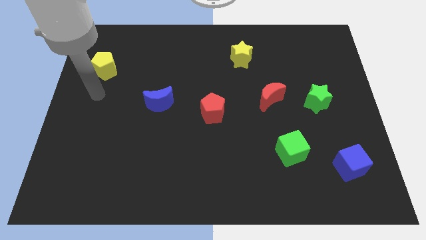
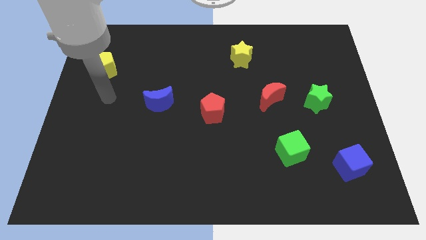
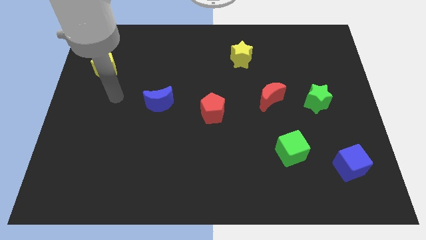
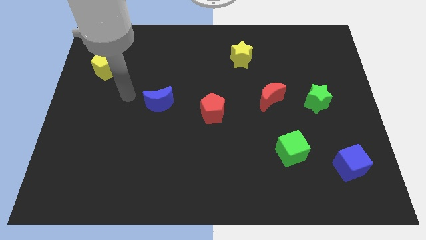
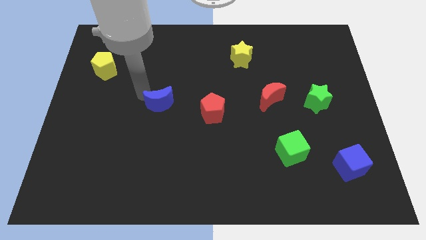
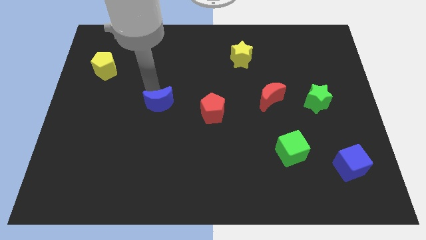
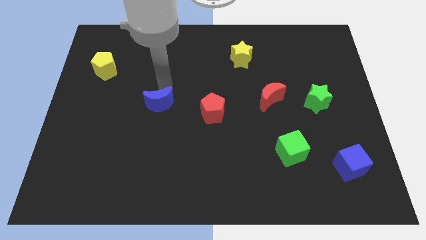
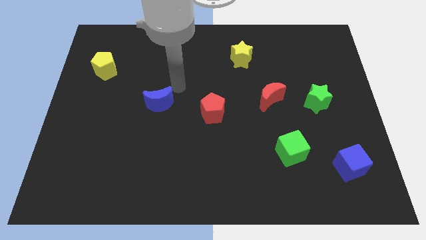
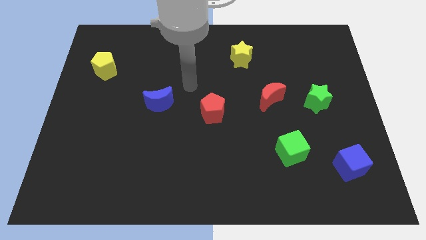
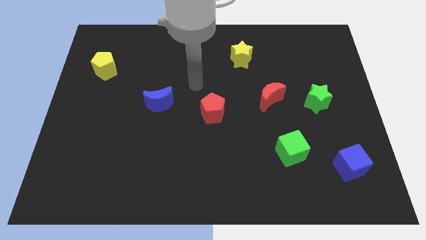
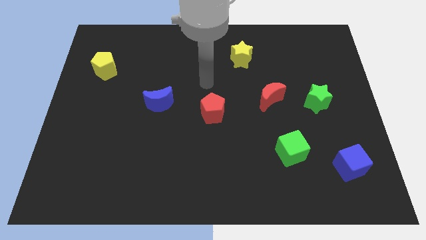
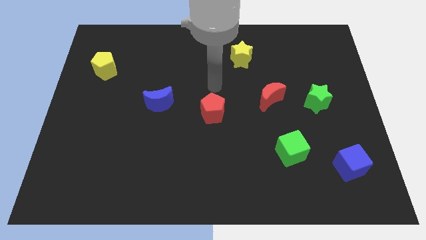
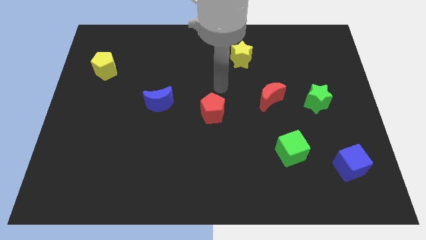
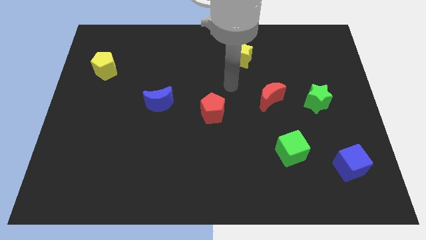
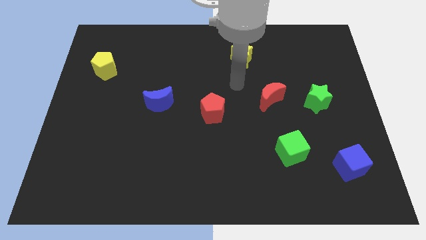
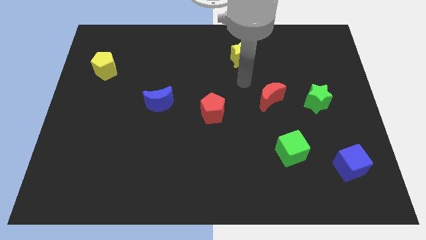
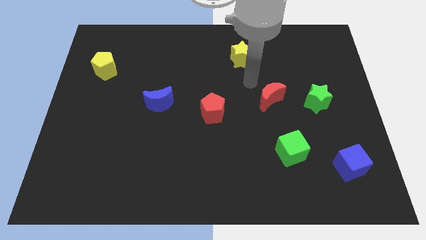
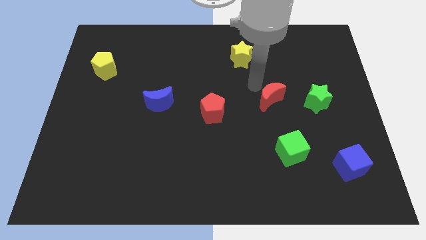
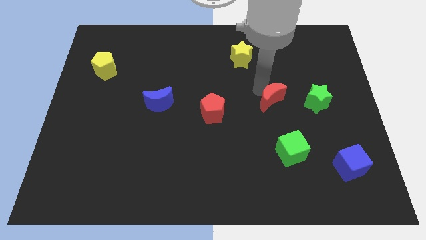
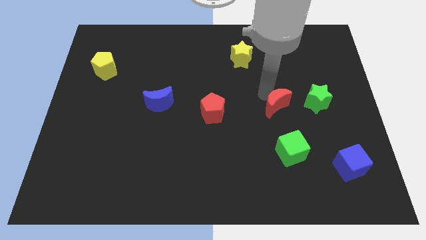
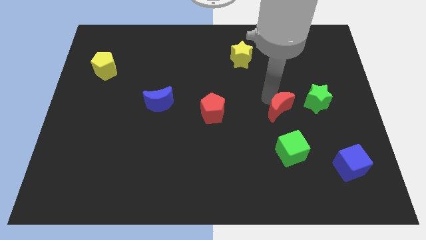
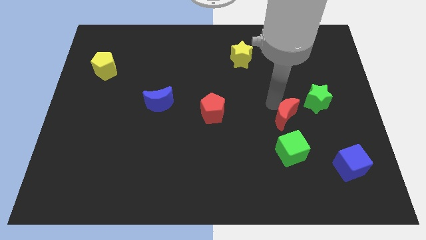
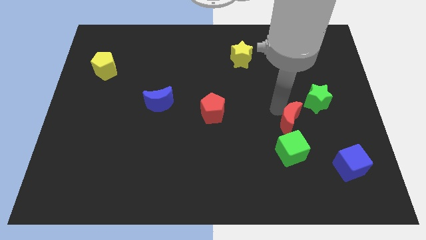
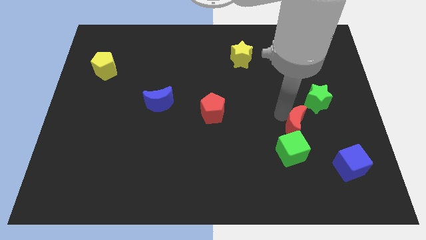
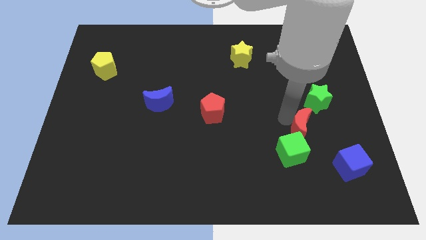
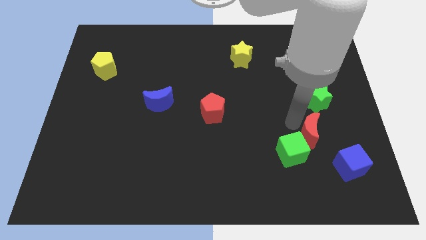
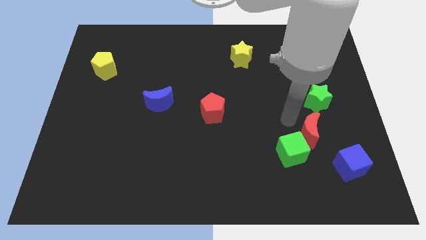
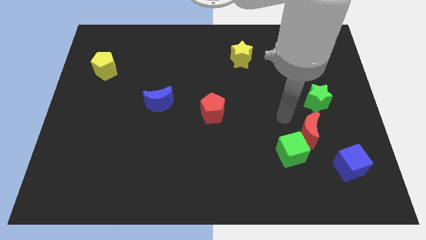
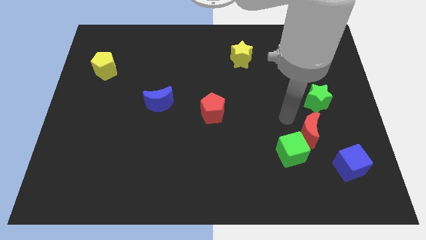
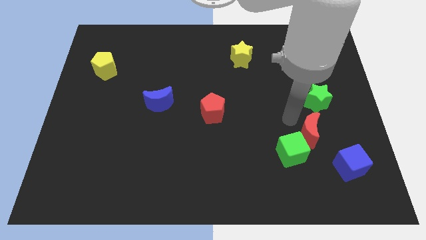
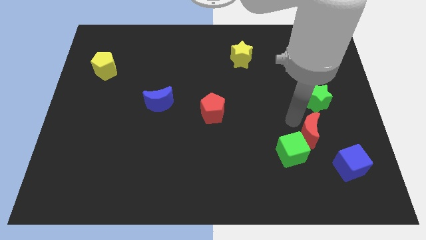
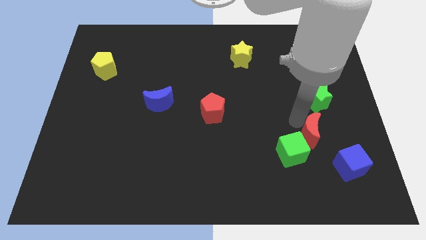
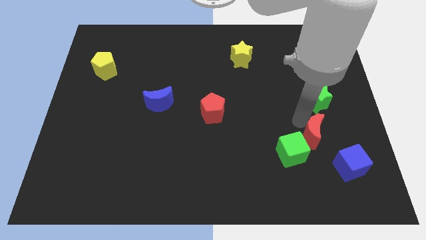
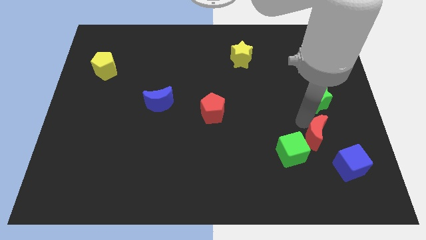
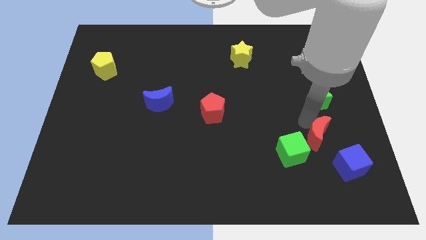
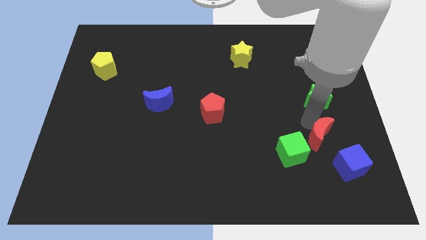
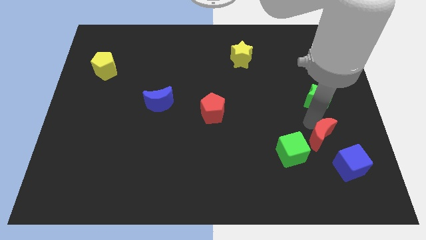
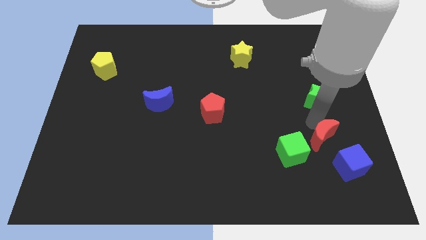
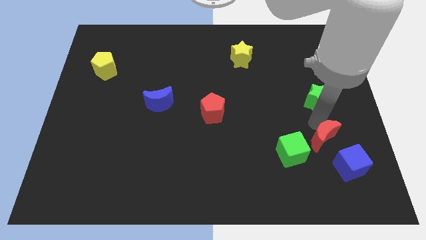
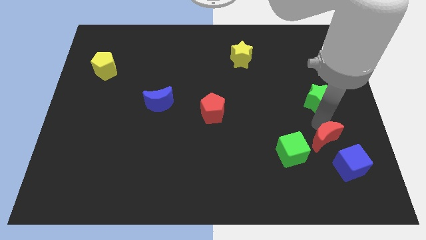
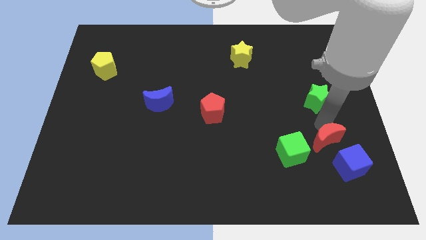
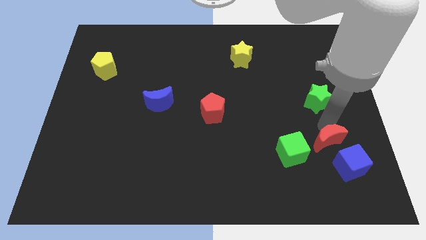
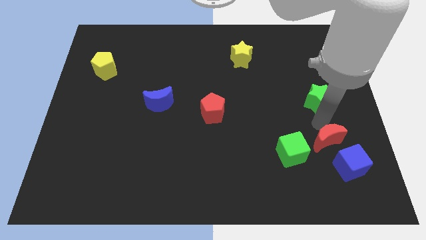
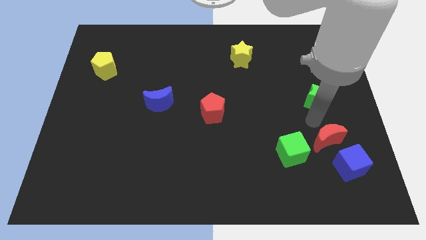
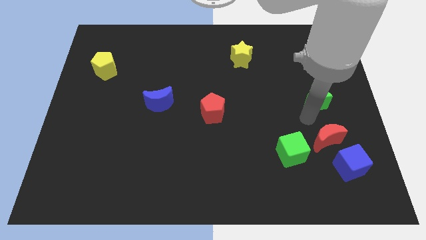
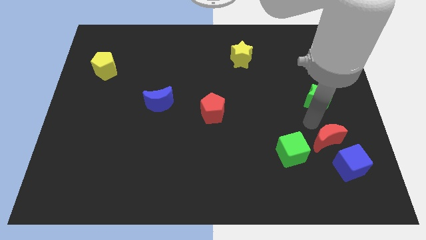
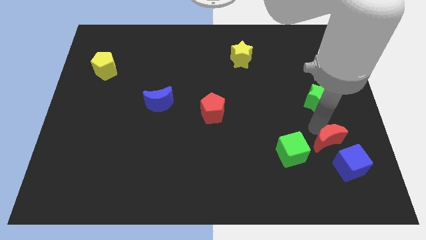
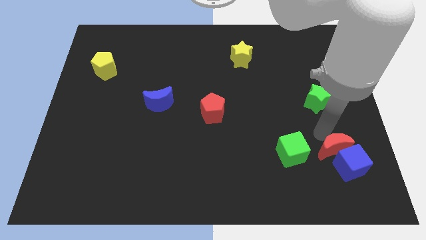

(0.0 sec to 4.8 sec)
slide the red moon to the blue cube

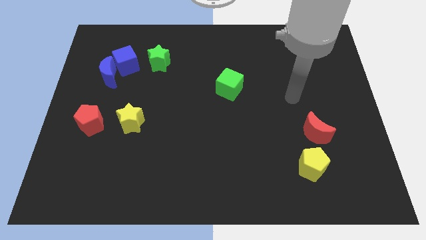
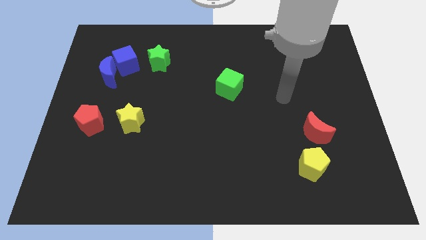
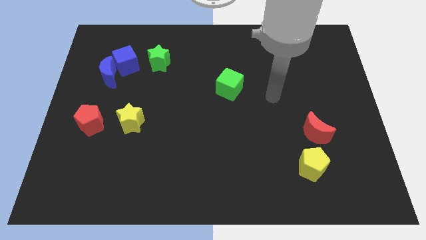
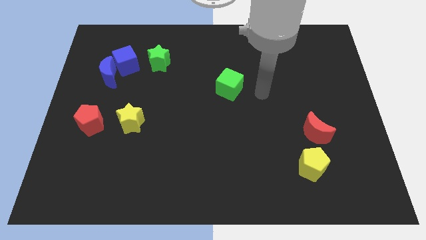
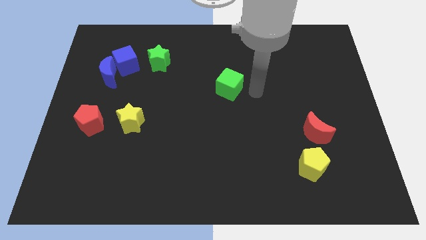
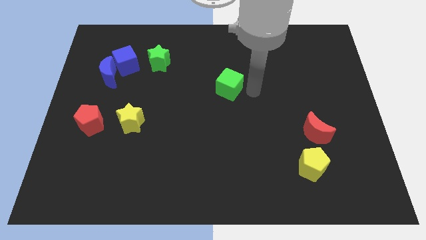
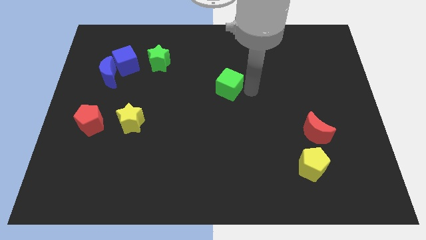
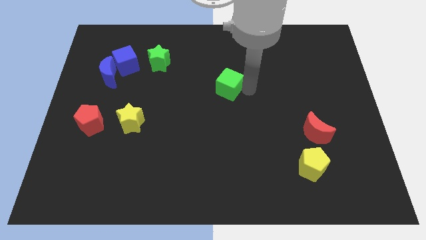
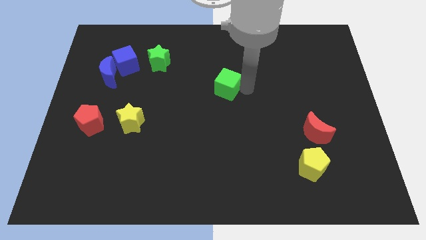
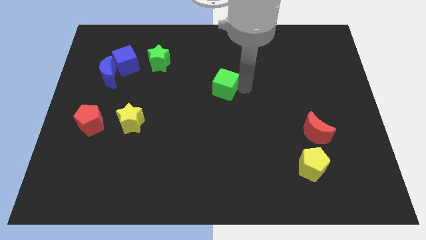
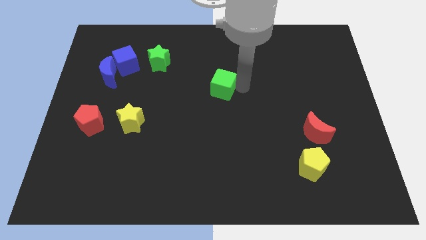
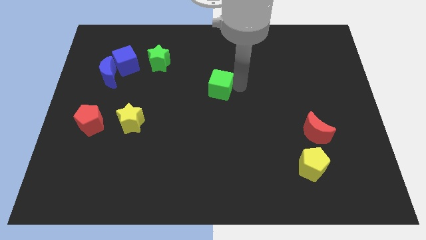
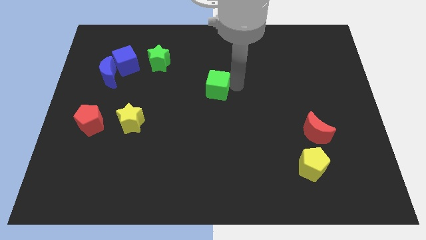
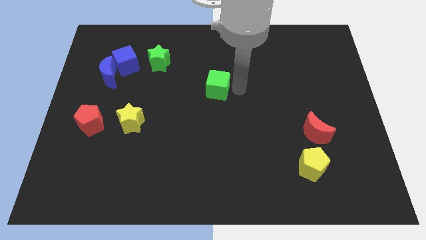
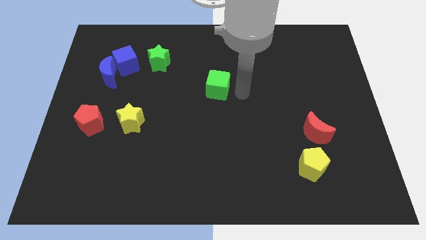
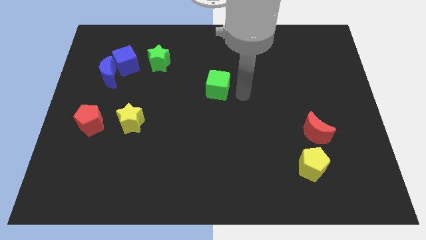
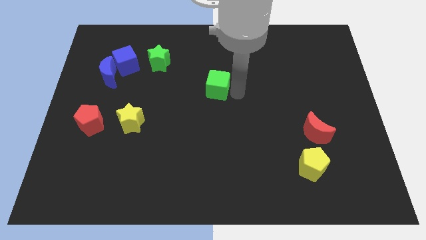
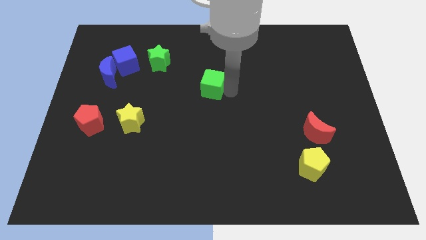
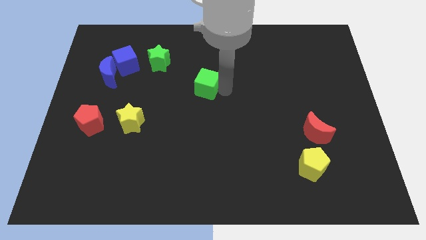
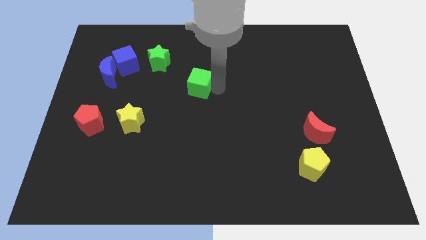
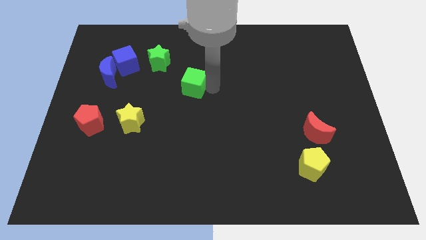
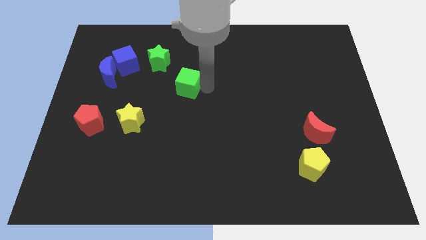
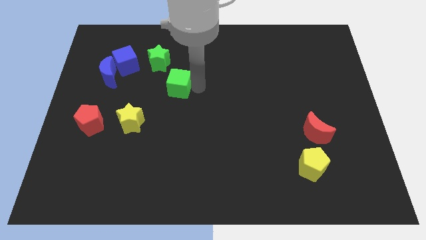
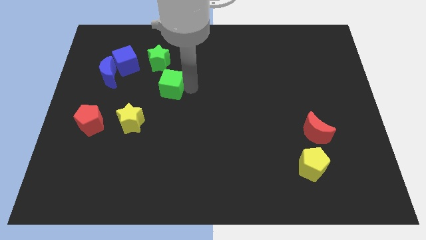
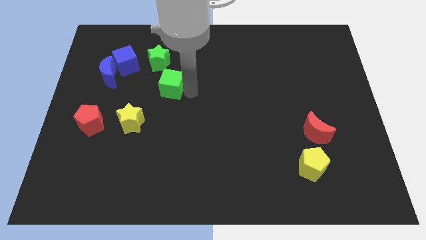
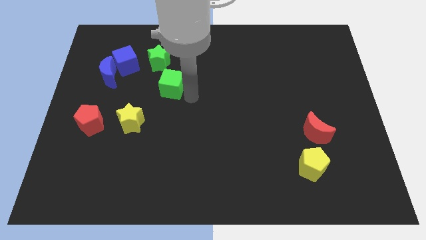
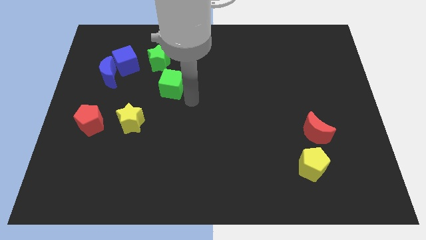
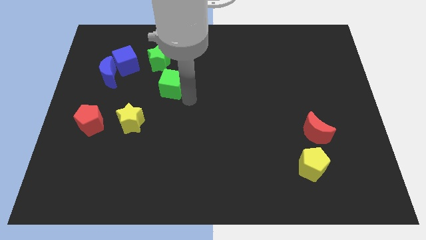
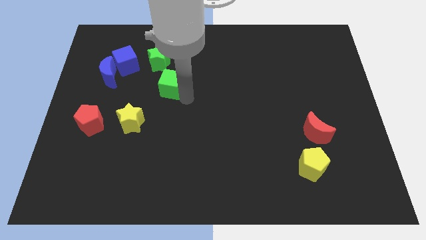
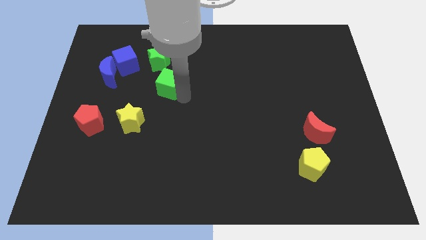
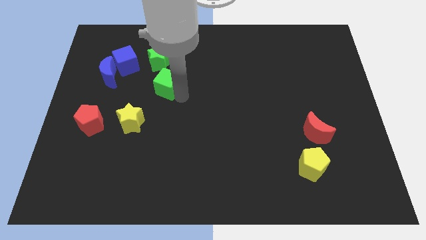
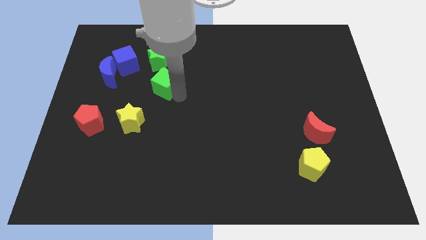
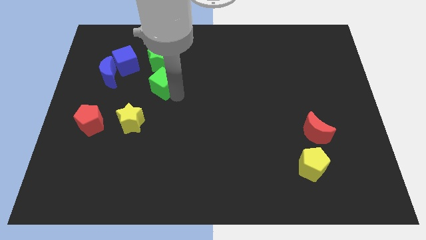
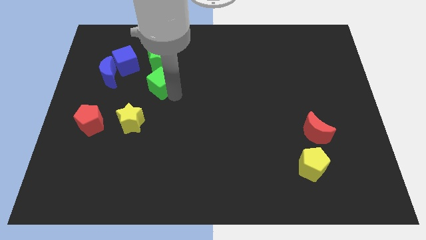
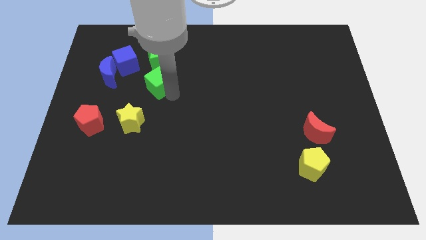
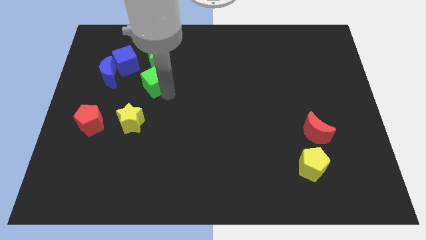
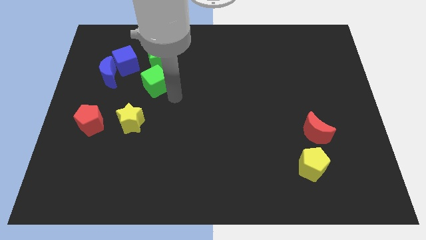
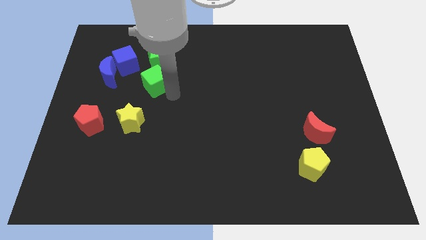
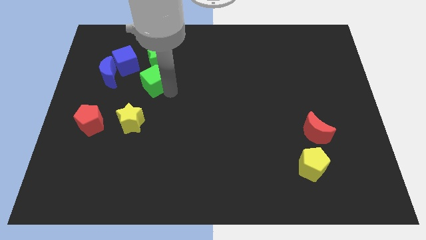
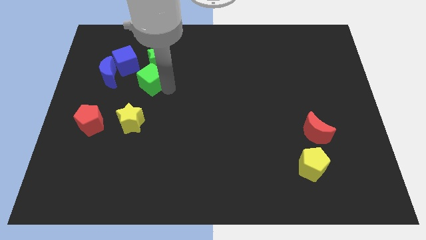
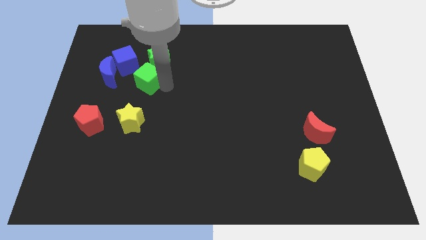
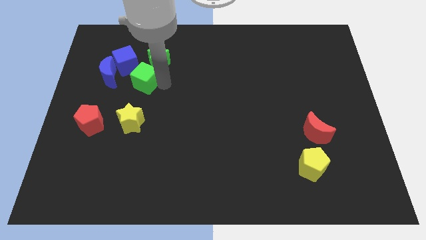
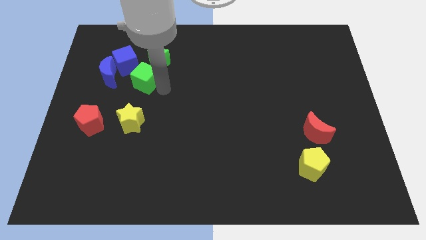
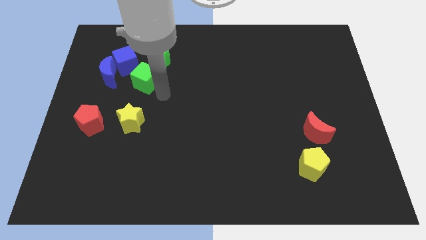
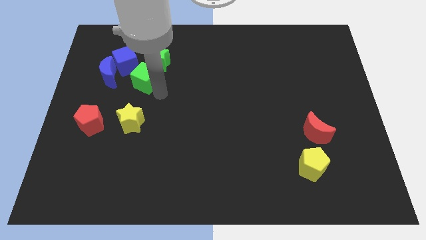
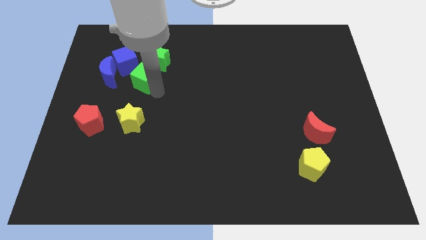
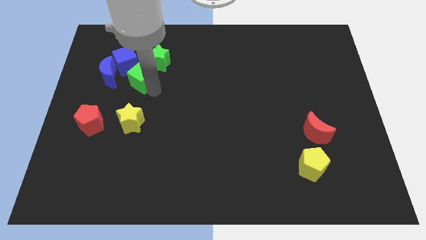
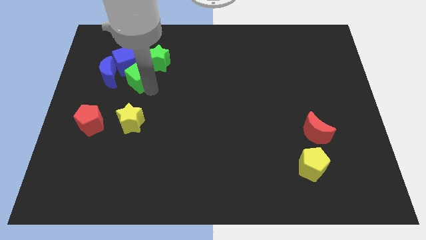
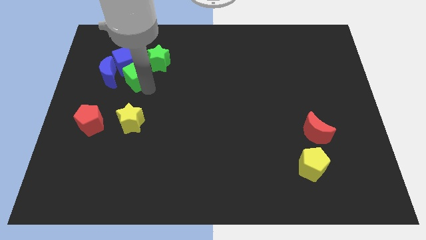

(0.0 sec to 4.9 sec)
slide the green cube to the blue cube
